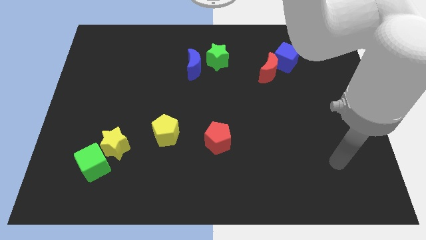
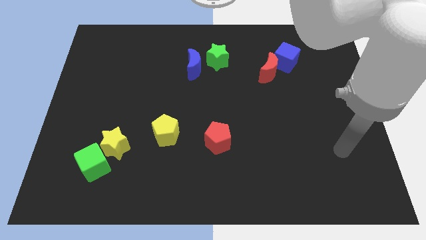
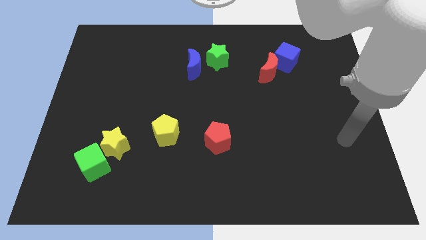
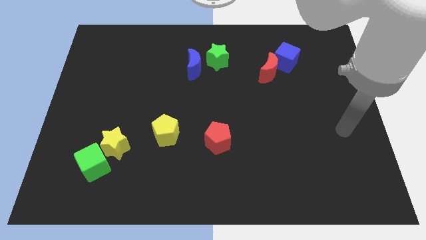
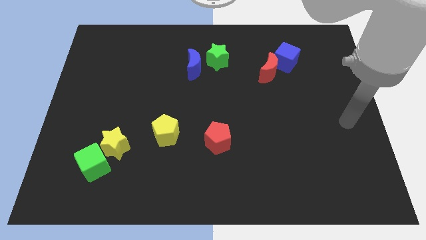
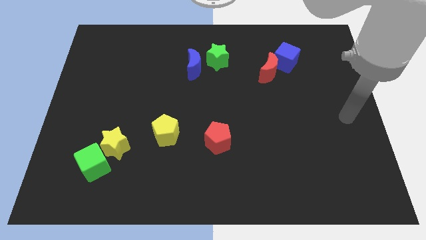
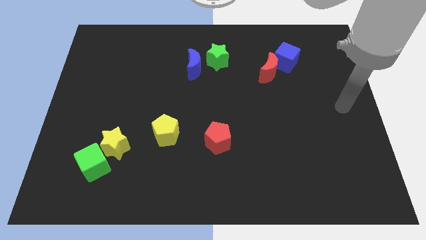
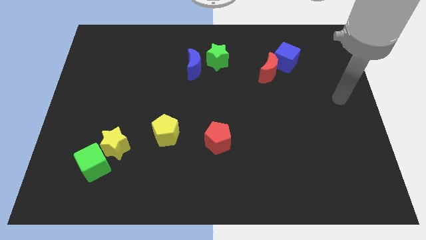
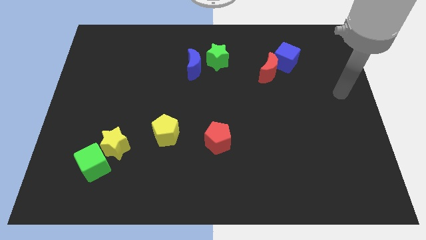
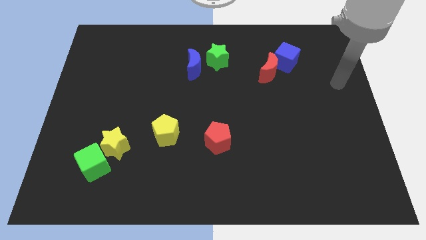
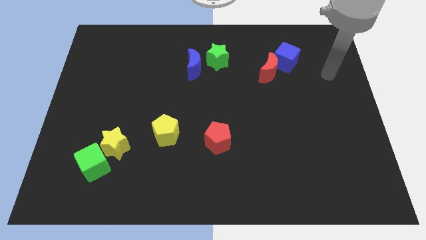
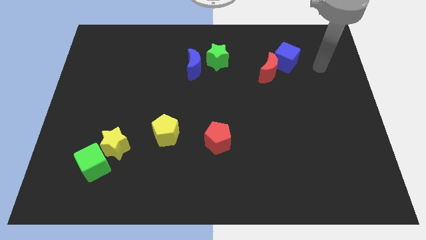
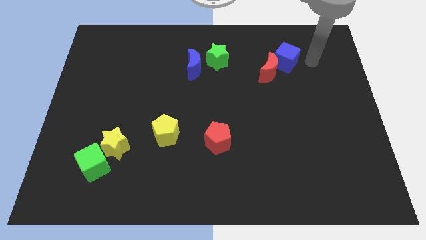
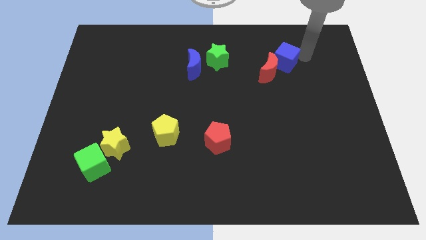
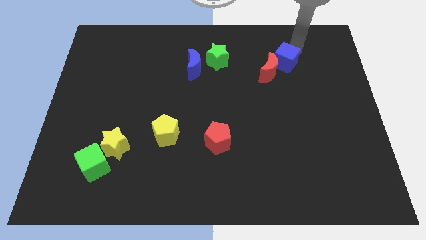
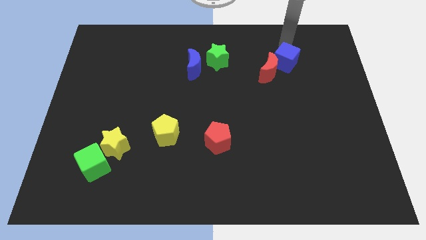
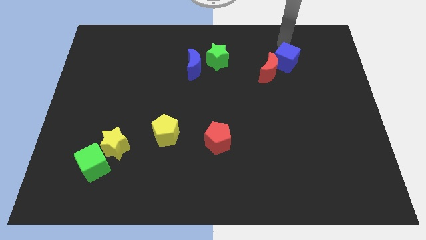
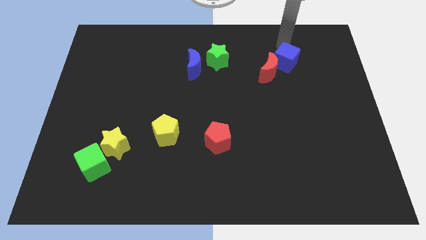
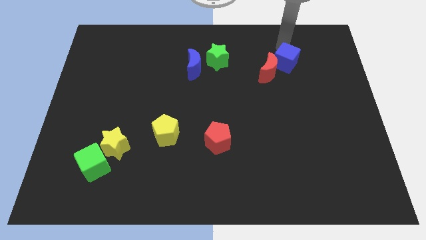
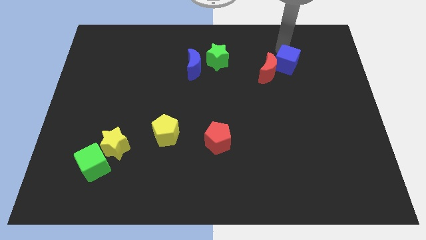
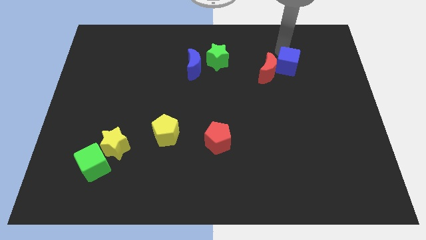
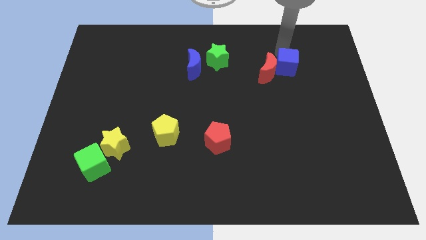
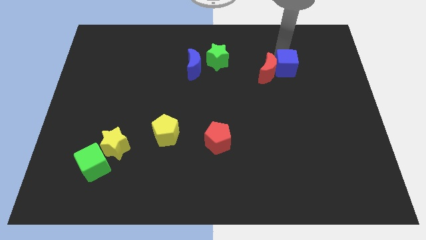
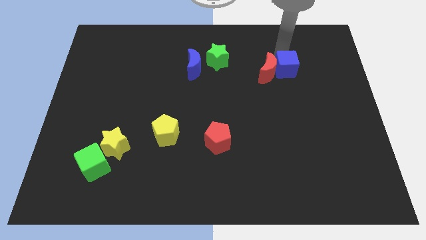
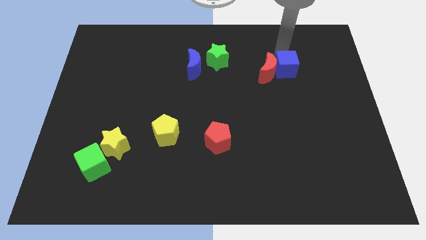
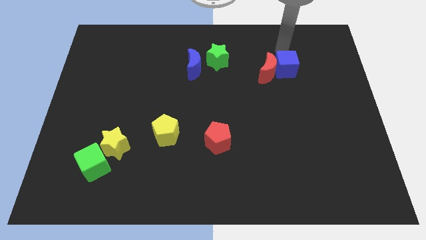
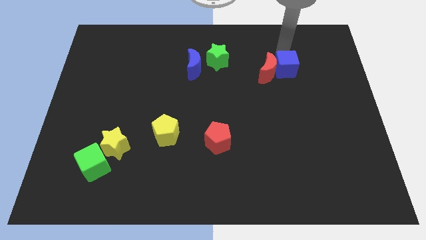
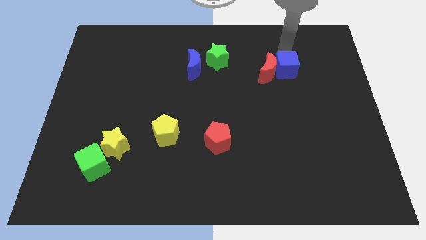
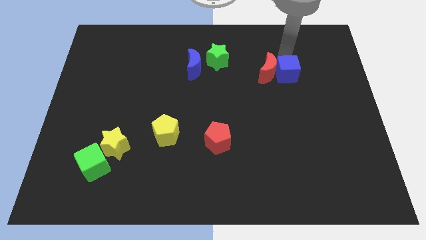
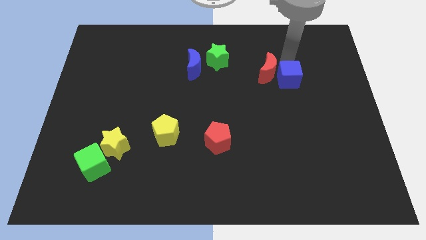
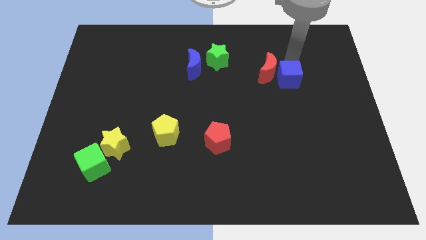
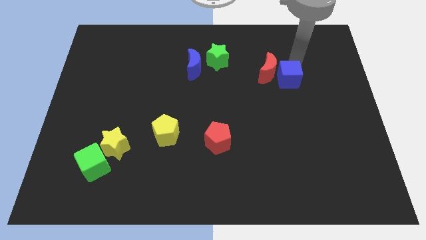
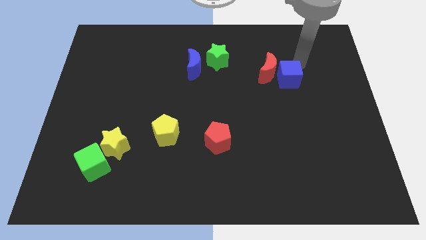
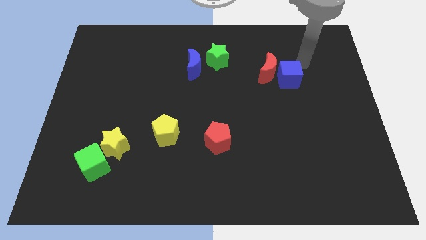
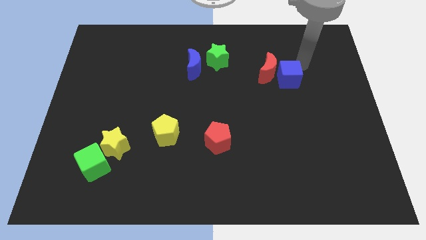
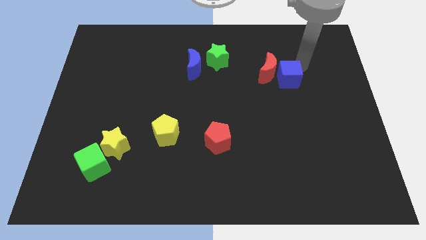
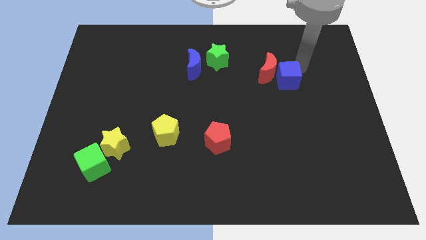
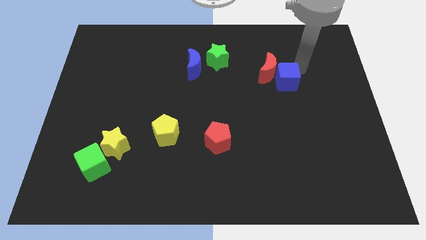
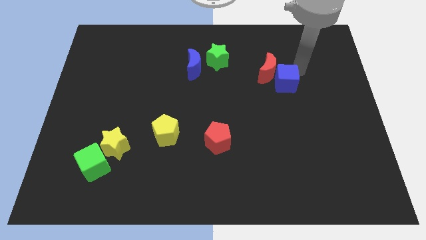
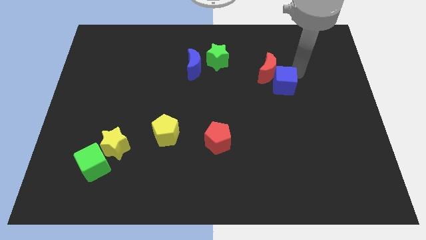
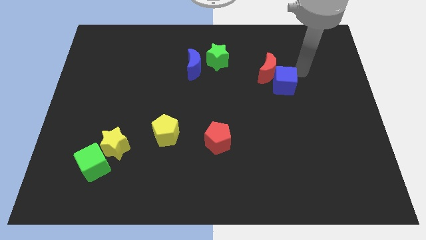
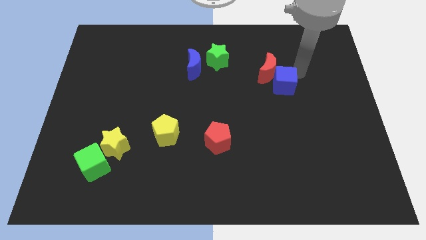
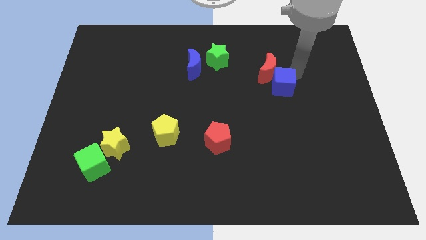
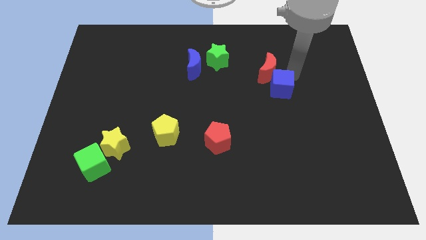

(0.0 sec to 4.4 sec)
push the blue cube down and then to the left a little bit

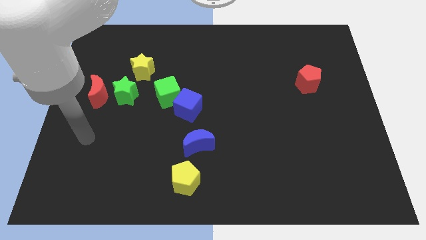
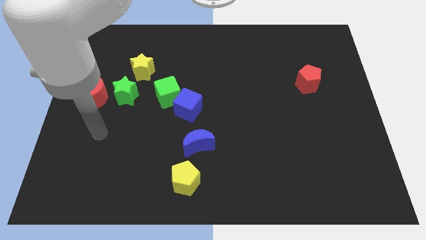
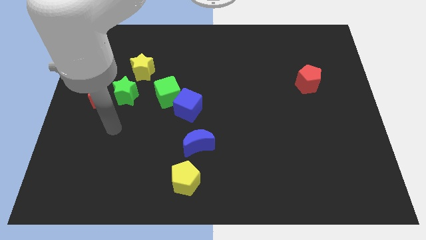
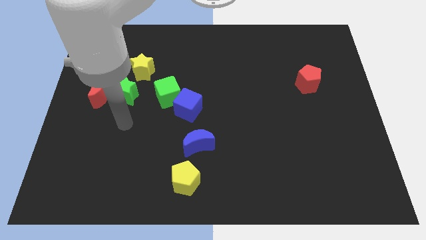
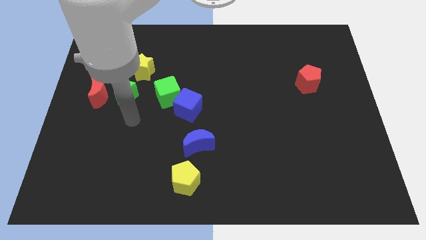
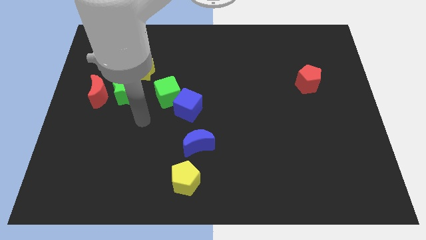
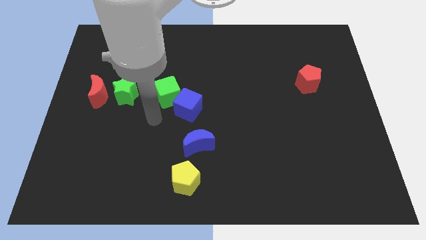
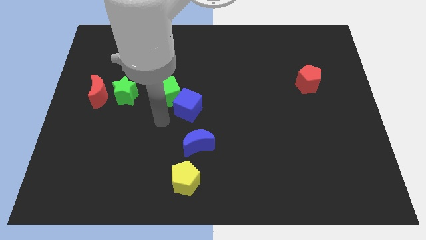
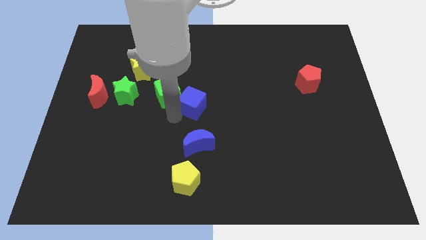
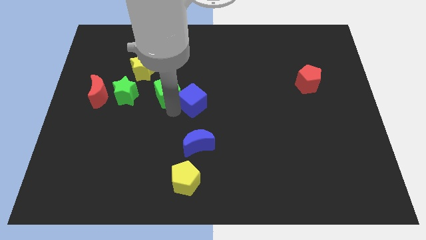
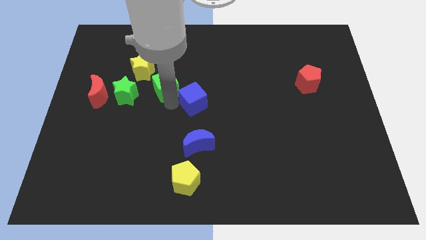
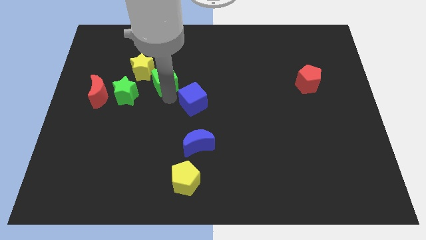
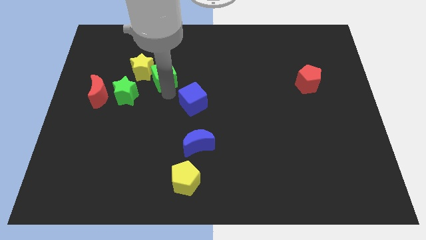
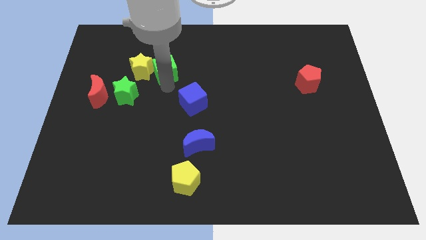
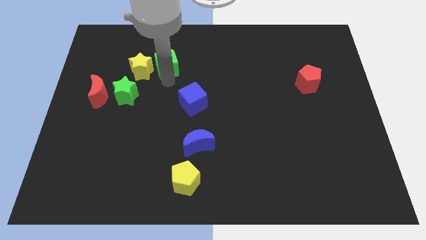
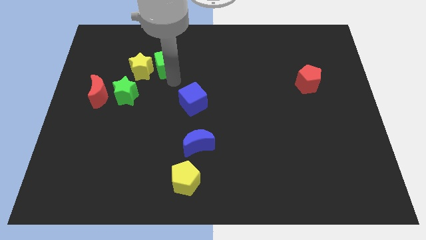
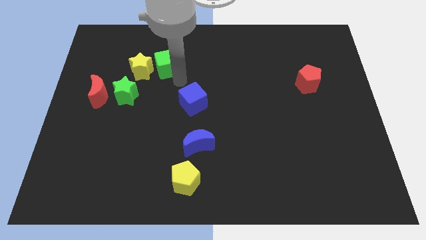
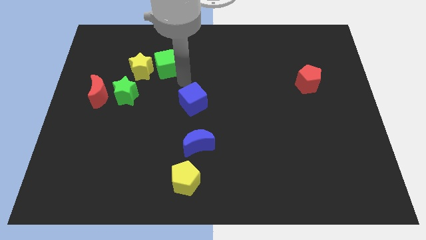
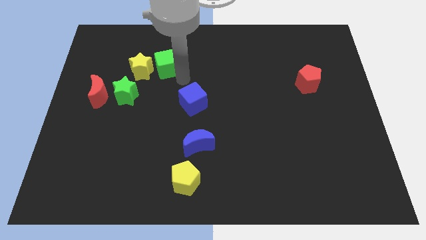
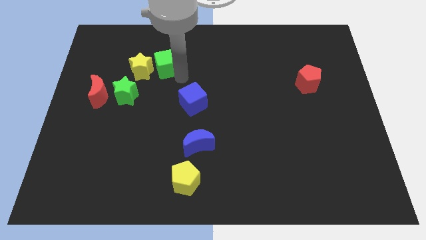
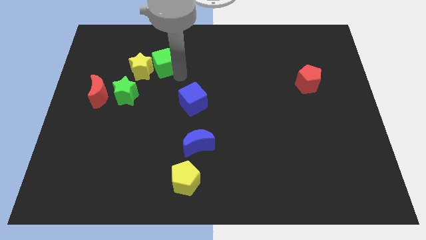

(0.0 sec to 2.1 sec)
slightly move the green cube diagonally up and left

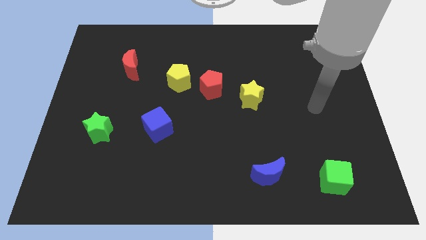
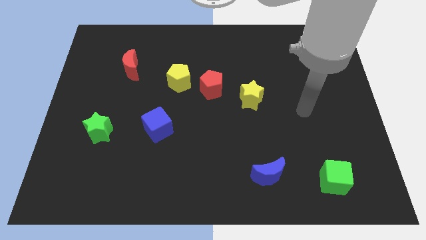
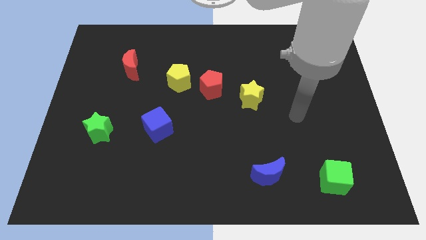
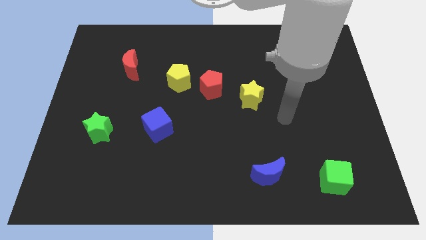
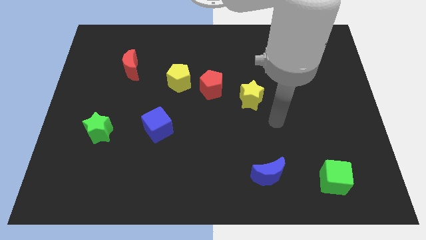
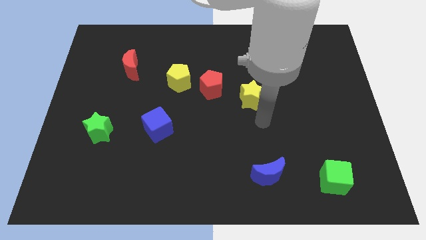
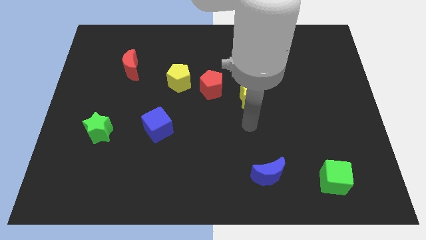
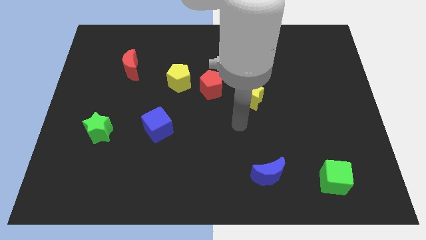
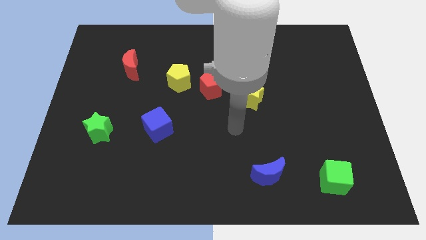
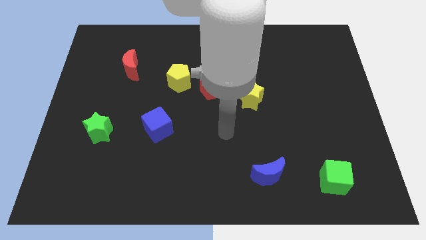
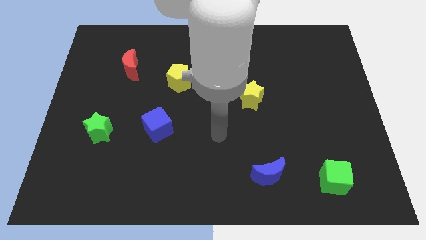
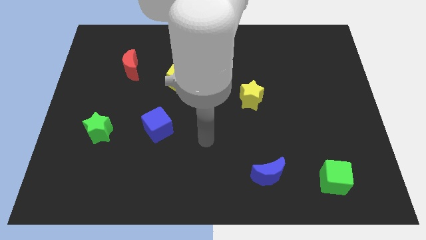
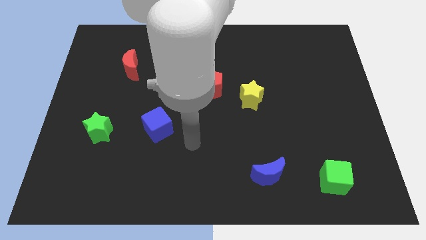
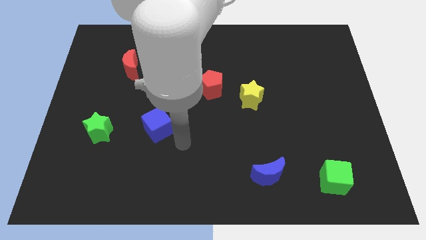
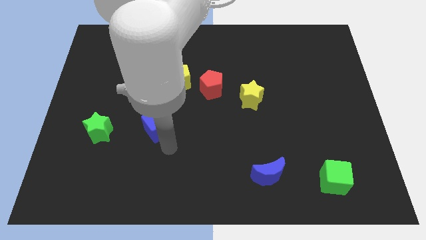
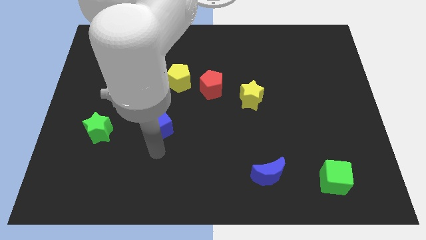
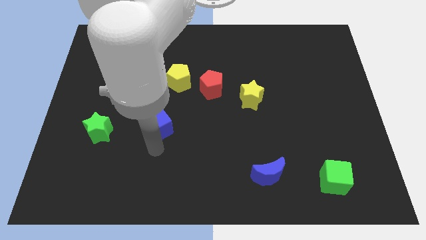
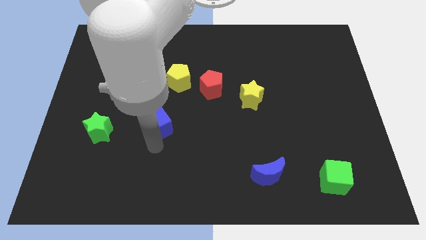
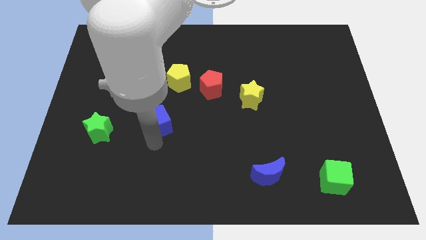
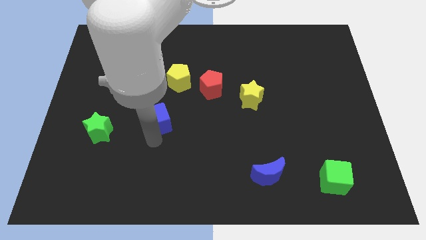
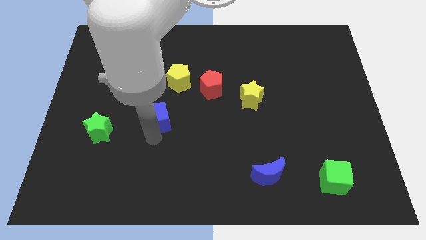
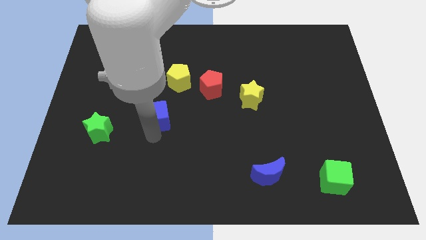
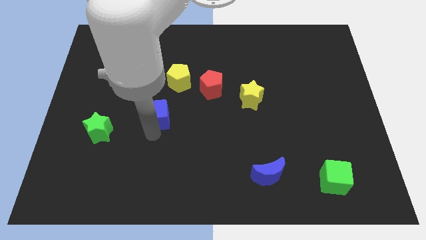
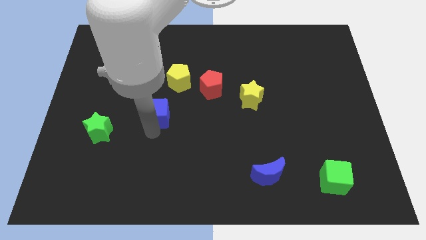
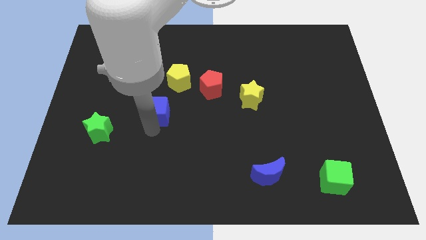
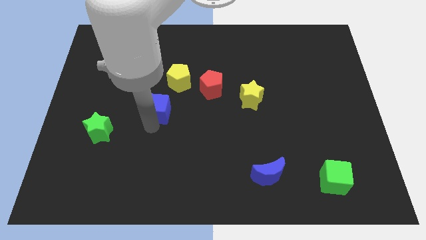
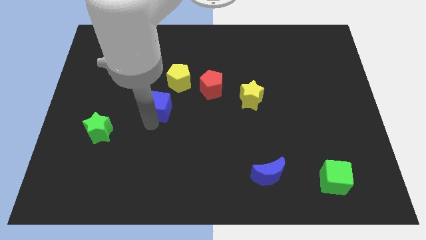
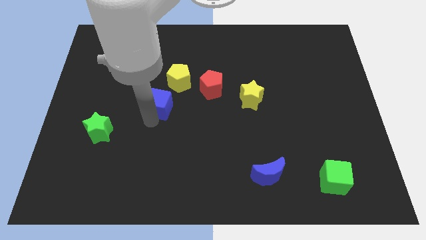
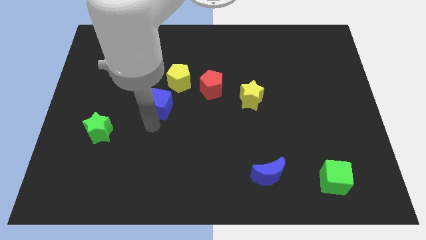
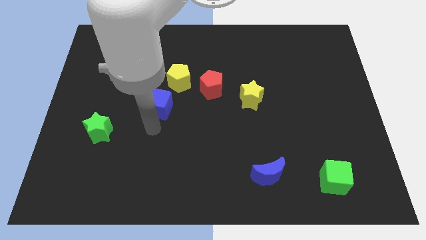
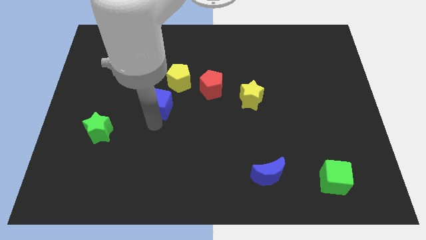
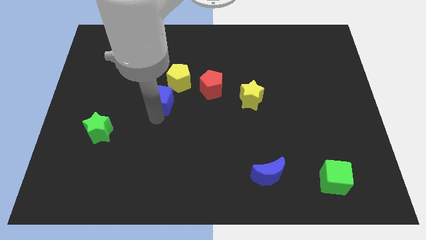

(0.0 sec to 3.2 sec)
slightly slide the blue cube upwards
